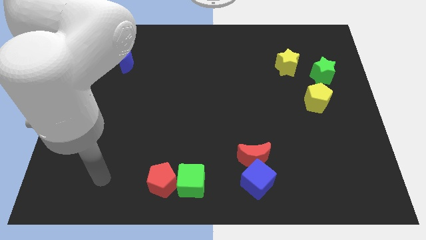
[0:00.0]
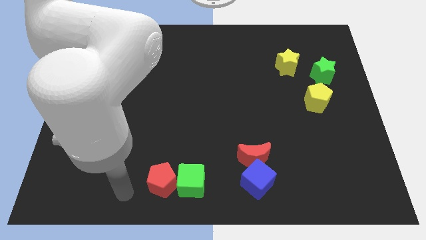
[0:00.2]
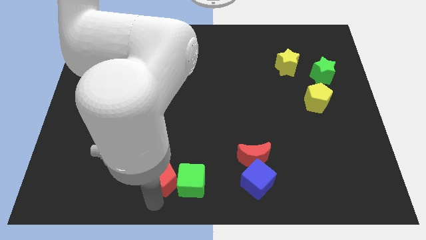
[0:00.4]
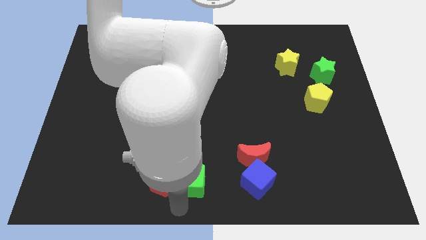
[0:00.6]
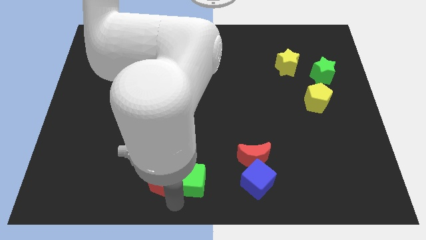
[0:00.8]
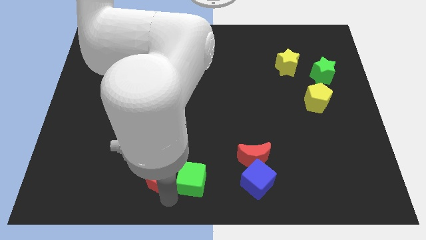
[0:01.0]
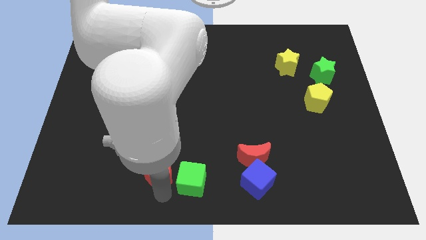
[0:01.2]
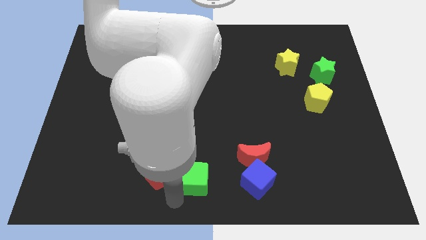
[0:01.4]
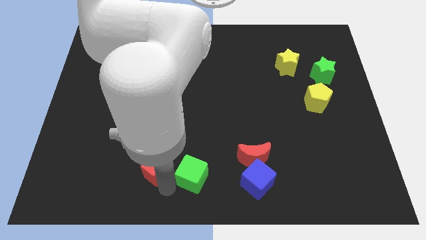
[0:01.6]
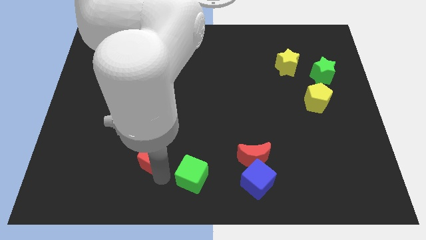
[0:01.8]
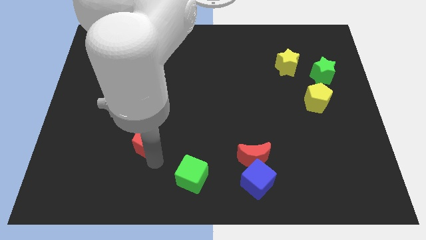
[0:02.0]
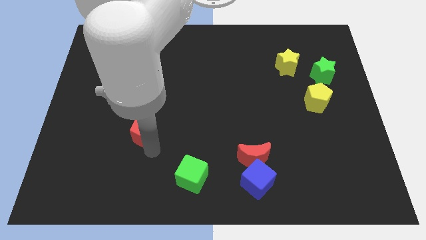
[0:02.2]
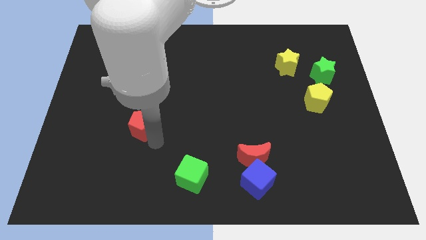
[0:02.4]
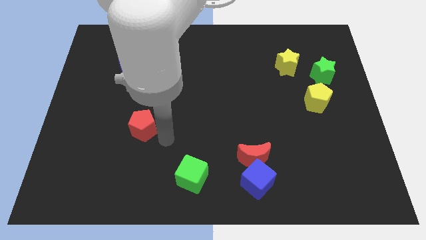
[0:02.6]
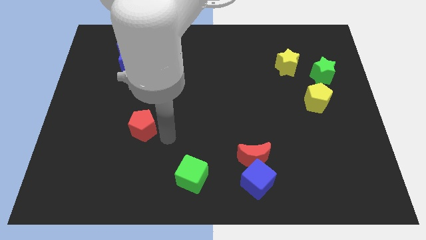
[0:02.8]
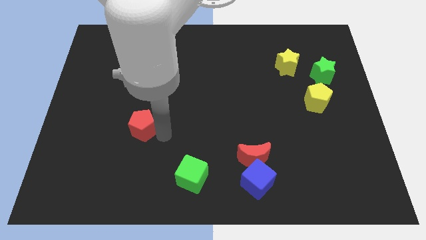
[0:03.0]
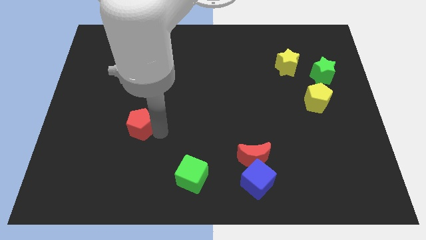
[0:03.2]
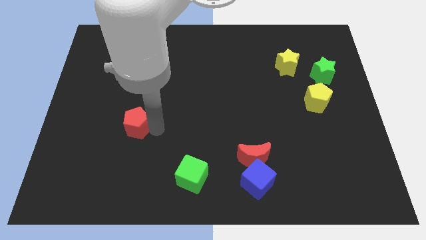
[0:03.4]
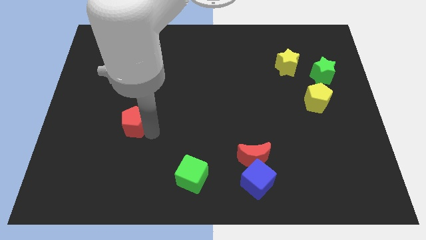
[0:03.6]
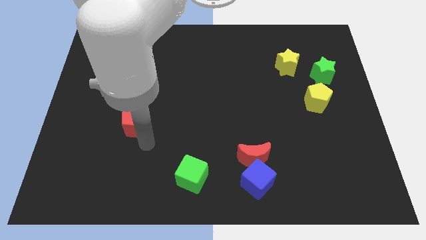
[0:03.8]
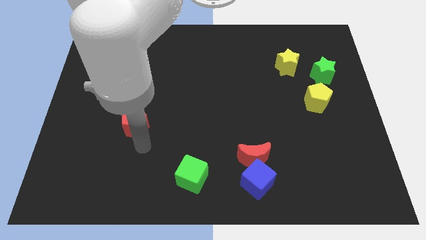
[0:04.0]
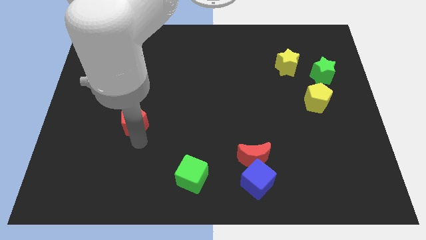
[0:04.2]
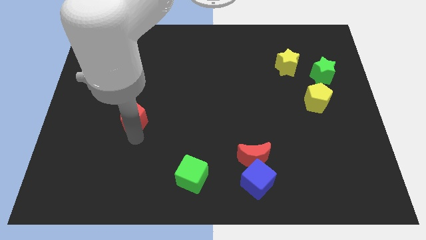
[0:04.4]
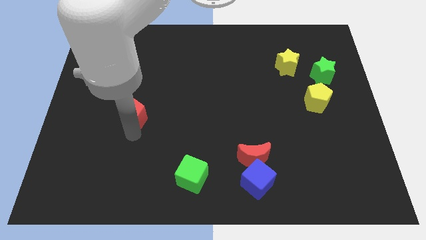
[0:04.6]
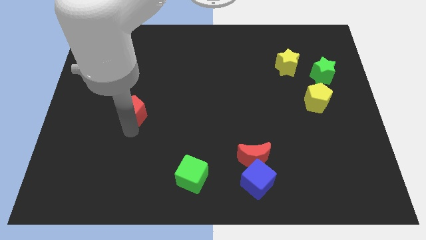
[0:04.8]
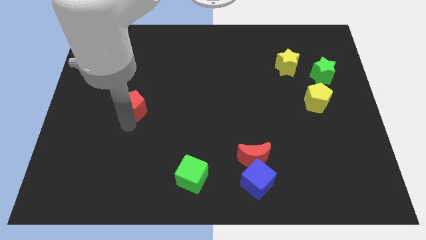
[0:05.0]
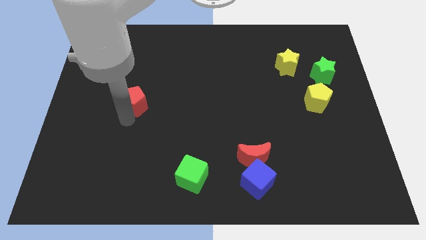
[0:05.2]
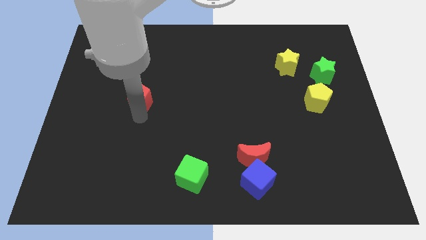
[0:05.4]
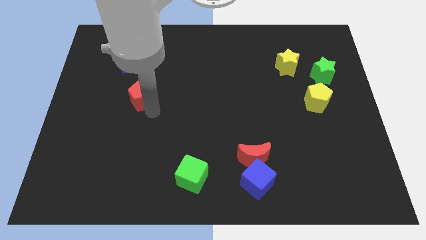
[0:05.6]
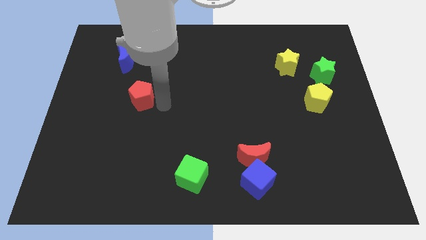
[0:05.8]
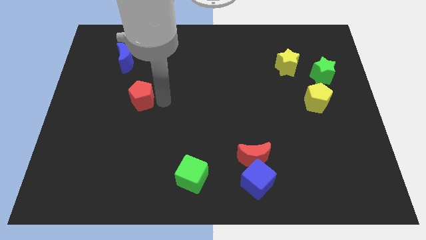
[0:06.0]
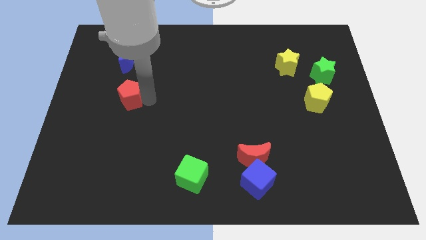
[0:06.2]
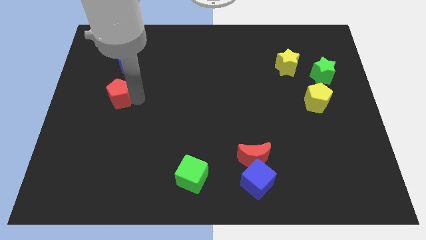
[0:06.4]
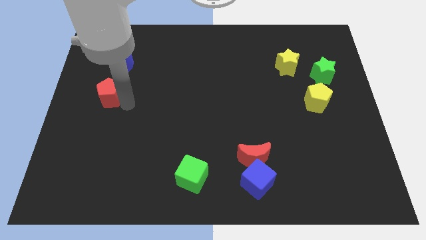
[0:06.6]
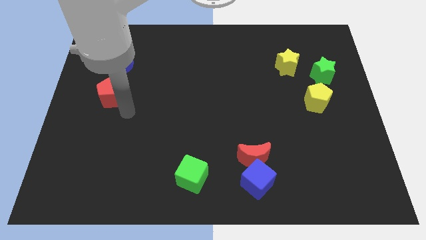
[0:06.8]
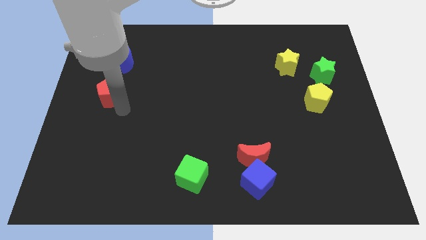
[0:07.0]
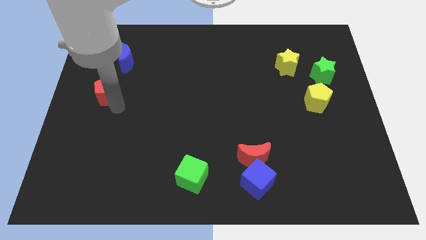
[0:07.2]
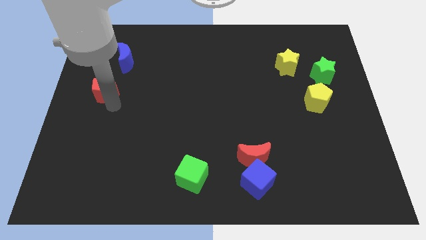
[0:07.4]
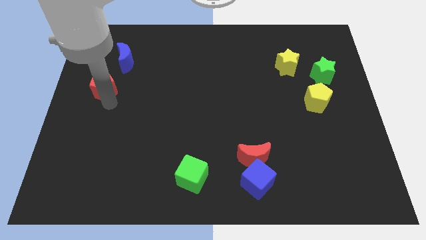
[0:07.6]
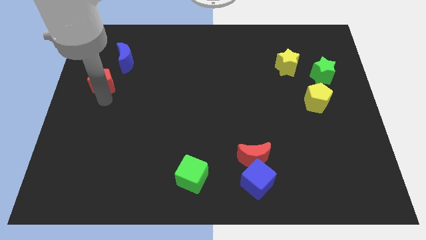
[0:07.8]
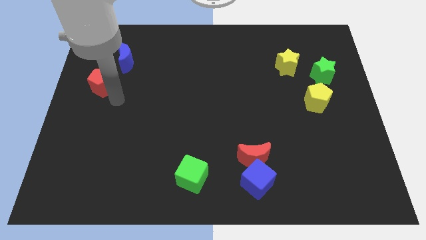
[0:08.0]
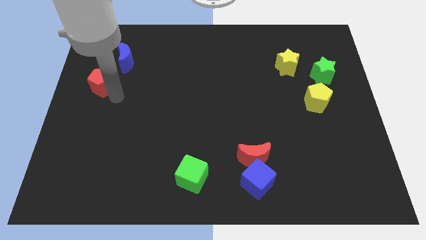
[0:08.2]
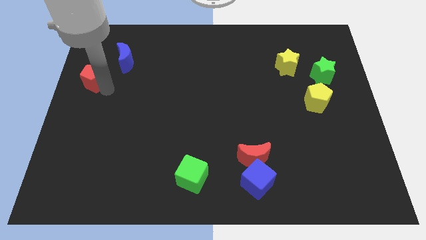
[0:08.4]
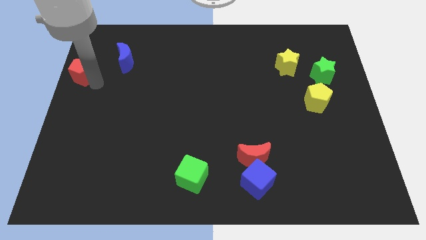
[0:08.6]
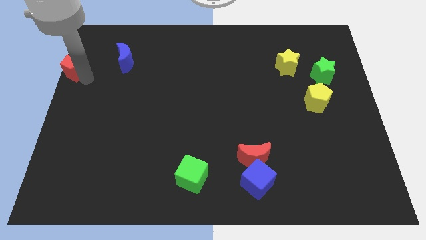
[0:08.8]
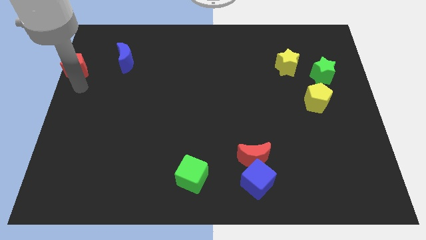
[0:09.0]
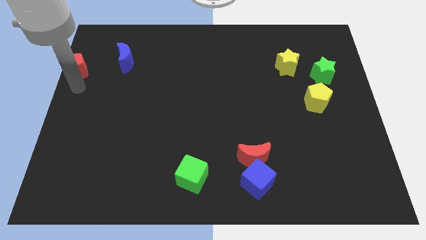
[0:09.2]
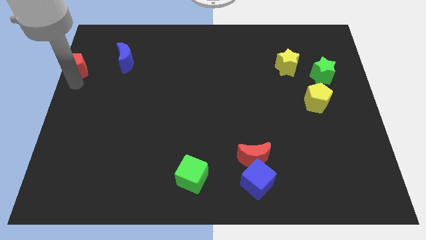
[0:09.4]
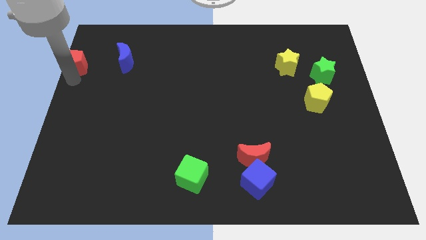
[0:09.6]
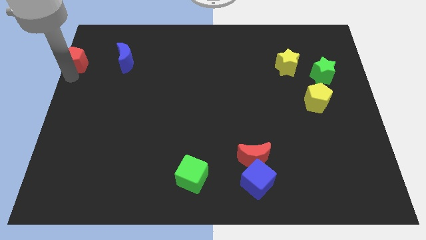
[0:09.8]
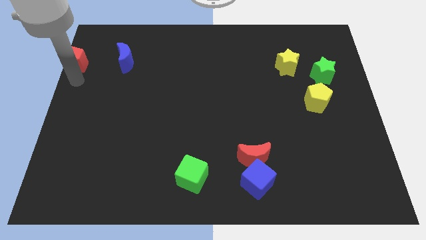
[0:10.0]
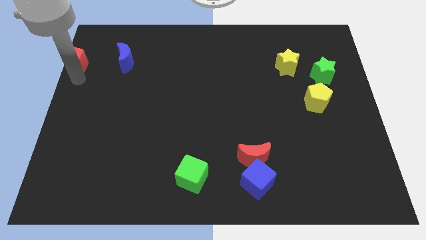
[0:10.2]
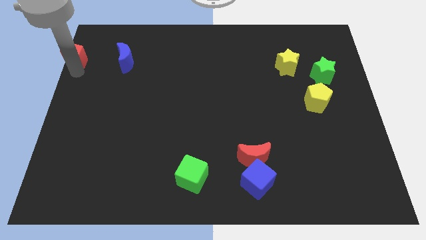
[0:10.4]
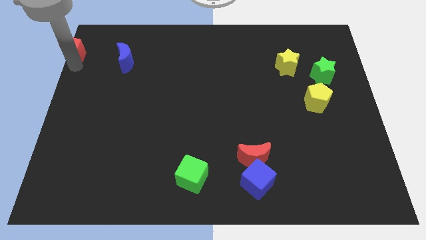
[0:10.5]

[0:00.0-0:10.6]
move the red pentagon to the top left corner
